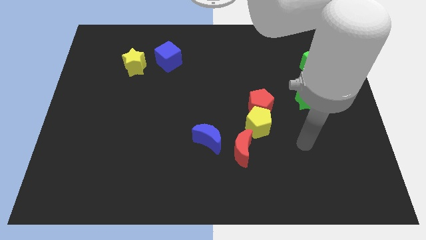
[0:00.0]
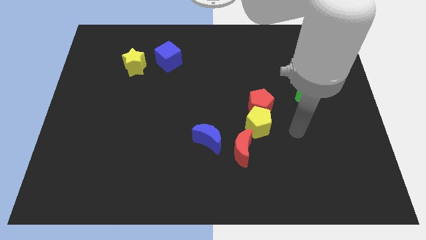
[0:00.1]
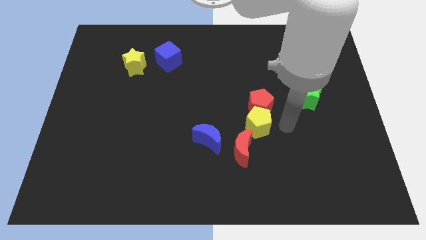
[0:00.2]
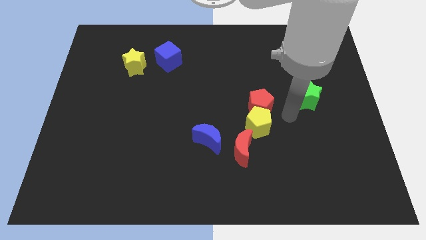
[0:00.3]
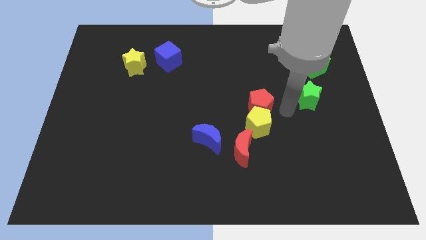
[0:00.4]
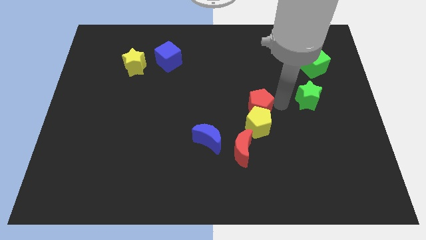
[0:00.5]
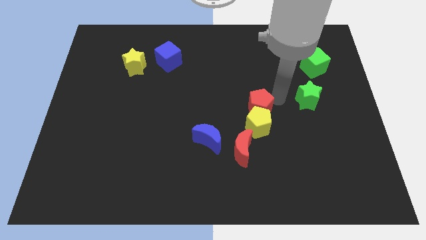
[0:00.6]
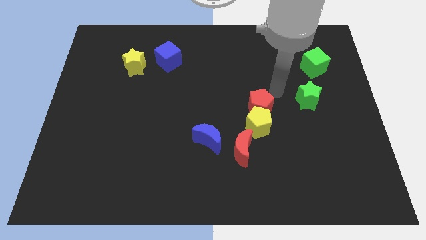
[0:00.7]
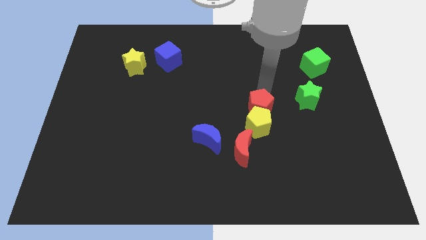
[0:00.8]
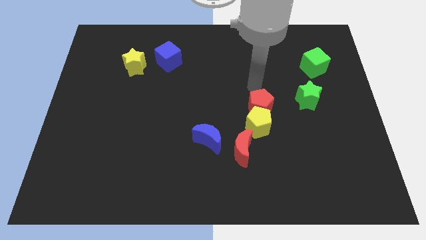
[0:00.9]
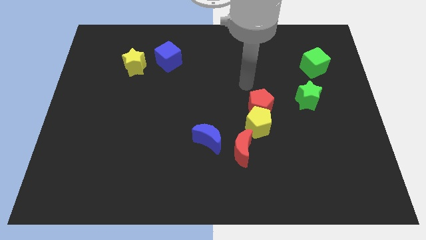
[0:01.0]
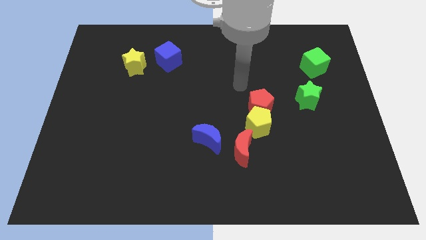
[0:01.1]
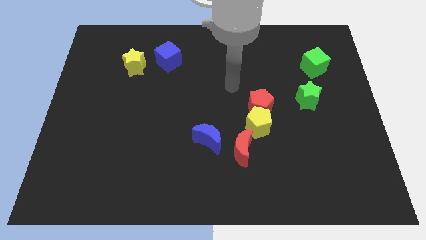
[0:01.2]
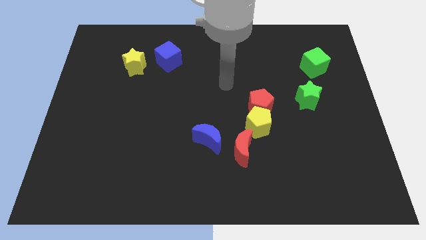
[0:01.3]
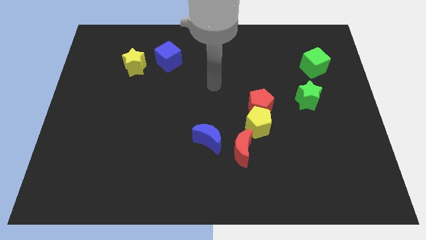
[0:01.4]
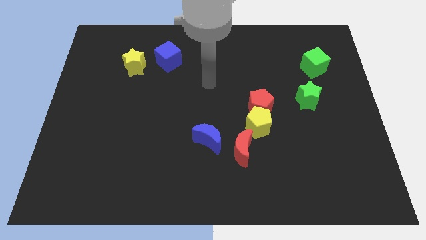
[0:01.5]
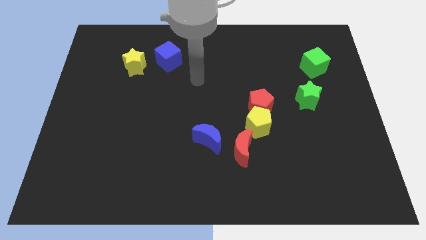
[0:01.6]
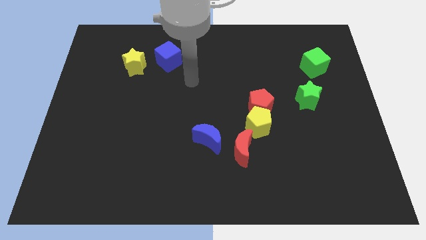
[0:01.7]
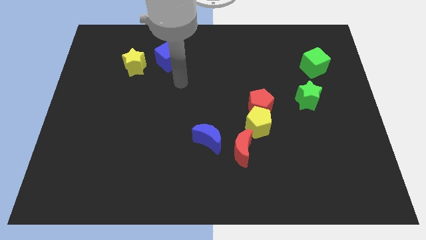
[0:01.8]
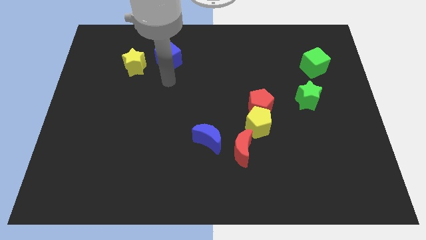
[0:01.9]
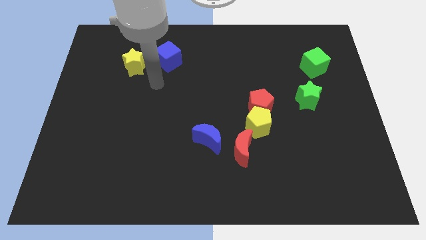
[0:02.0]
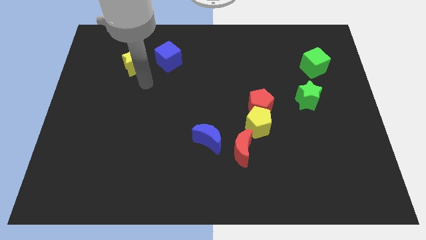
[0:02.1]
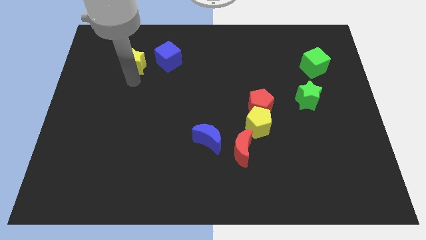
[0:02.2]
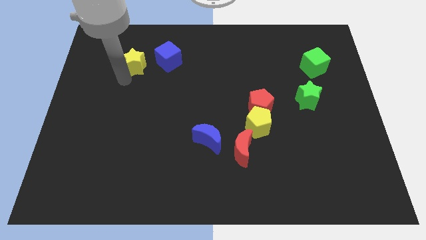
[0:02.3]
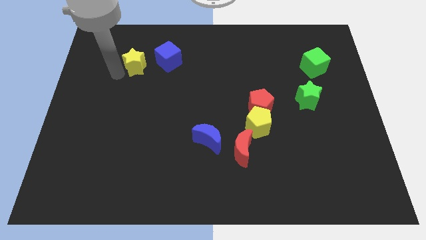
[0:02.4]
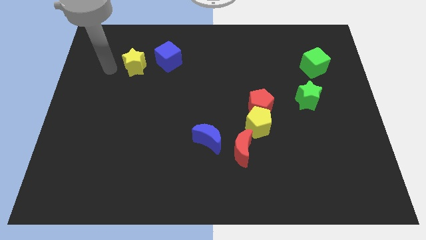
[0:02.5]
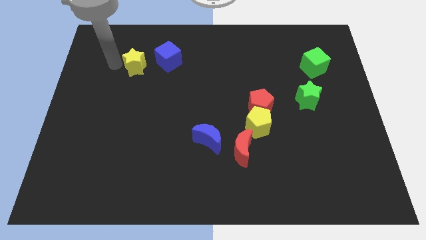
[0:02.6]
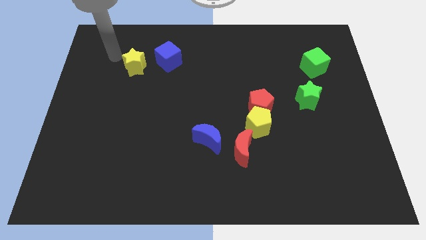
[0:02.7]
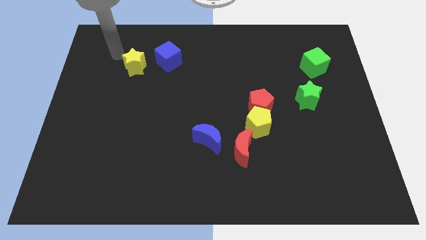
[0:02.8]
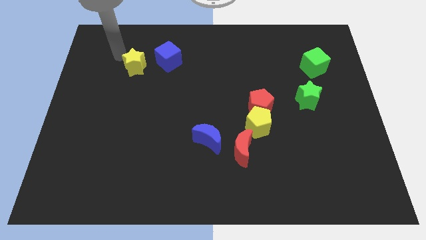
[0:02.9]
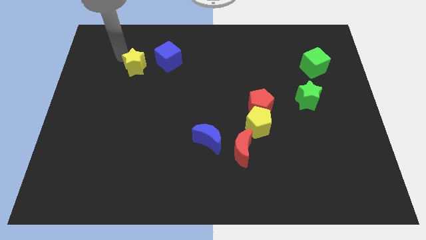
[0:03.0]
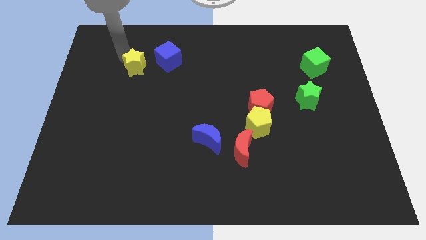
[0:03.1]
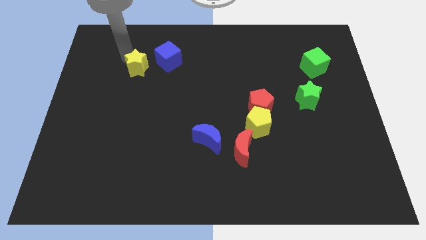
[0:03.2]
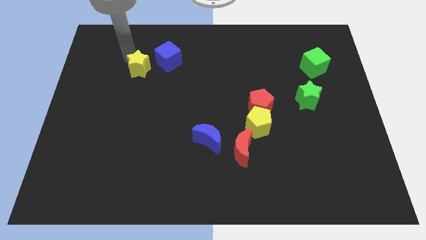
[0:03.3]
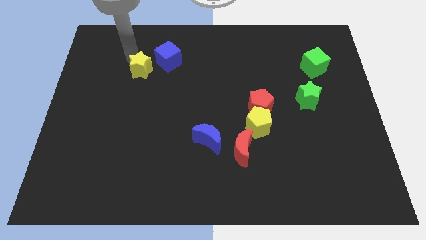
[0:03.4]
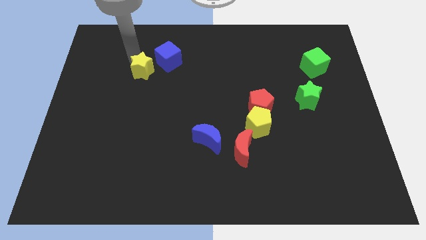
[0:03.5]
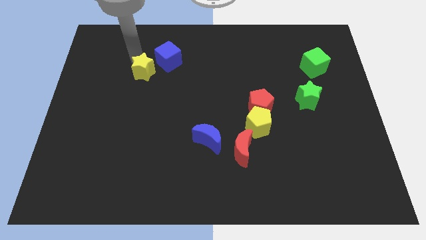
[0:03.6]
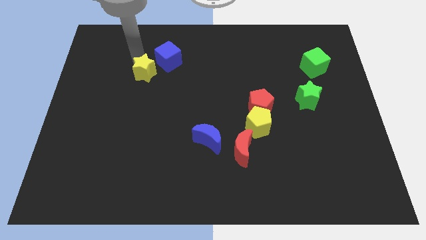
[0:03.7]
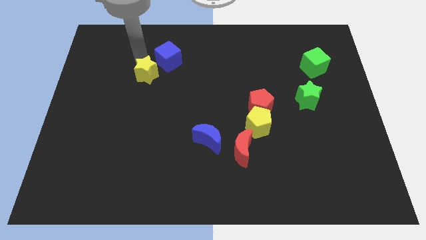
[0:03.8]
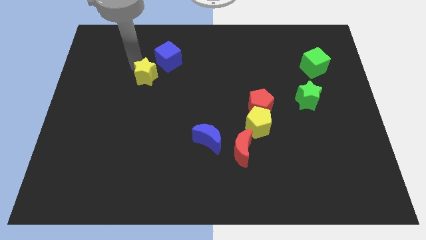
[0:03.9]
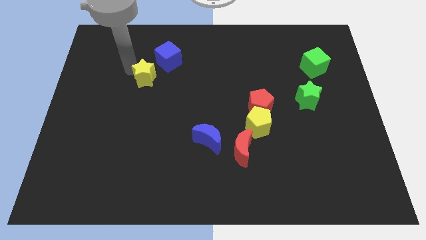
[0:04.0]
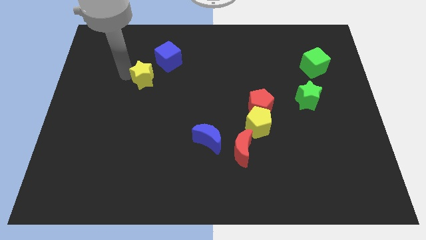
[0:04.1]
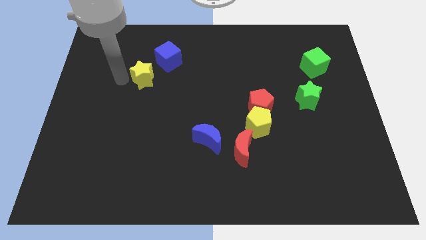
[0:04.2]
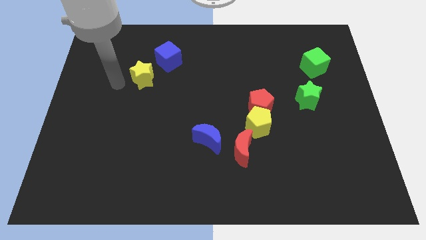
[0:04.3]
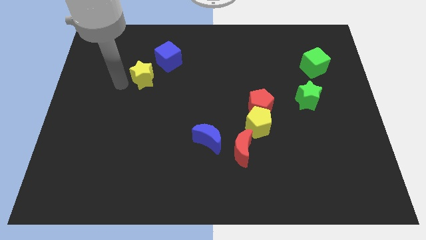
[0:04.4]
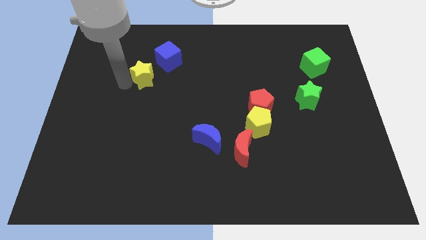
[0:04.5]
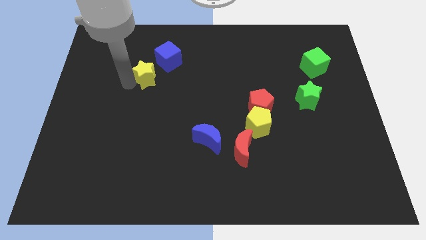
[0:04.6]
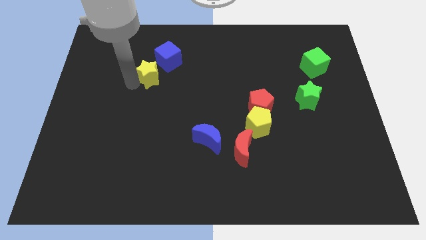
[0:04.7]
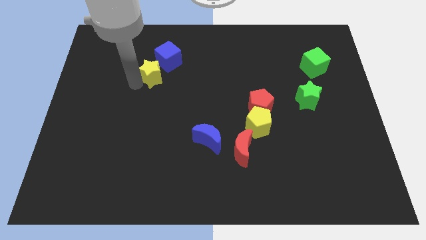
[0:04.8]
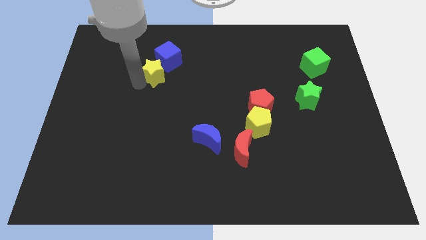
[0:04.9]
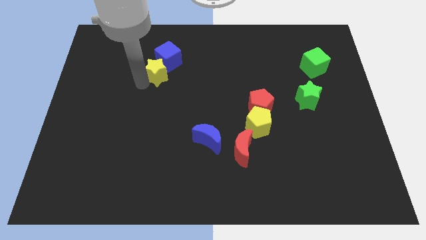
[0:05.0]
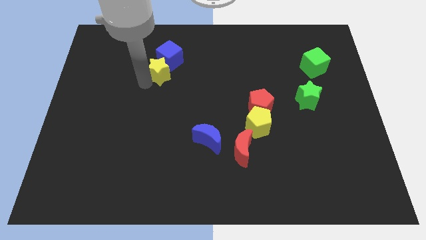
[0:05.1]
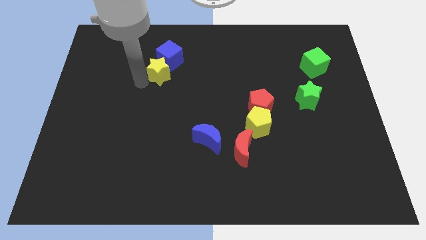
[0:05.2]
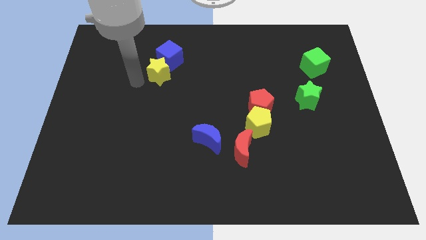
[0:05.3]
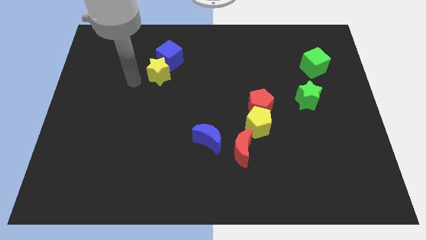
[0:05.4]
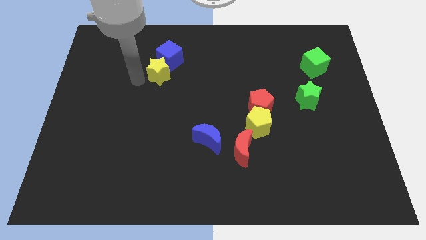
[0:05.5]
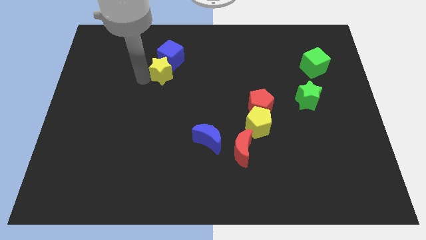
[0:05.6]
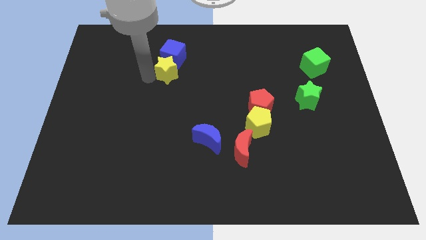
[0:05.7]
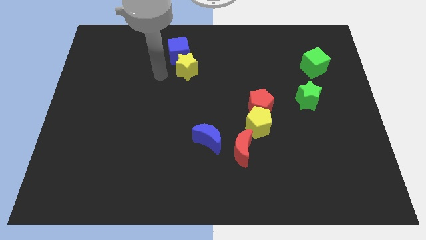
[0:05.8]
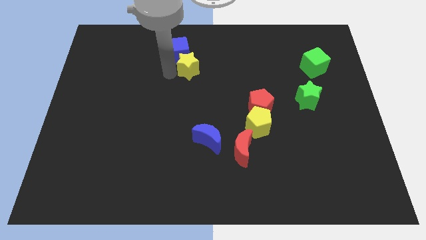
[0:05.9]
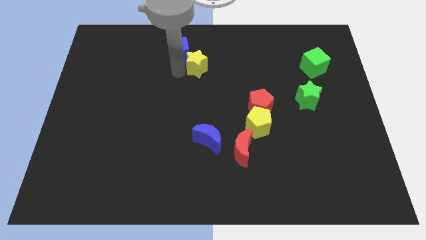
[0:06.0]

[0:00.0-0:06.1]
slide the yellow star to the right side of the blue cube

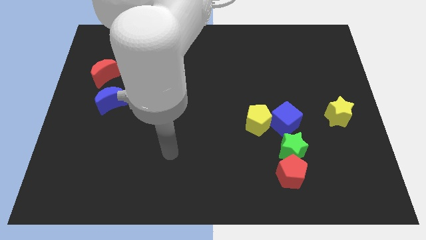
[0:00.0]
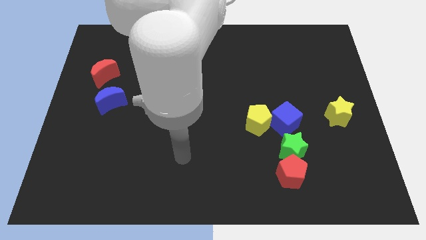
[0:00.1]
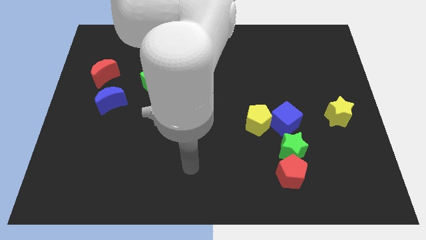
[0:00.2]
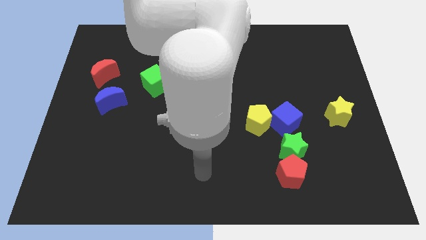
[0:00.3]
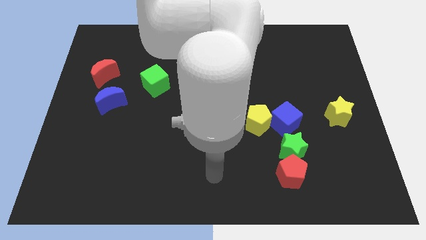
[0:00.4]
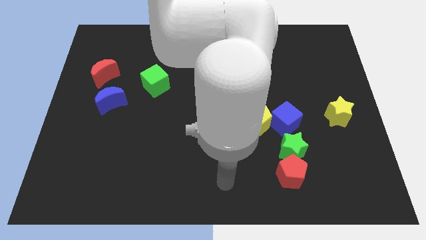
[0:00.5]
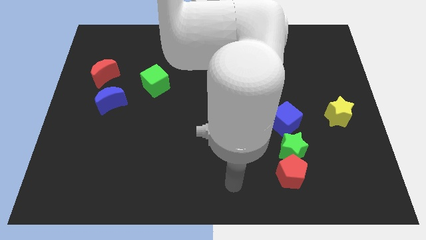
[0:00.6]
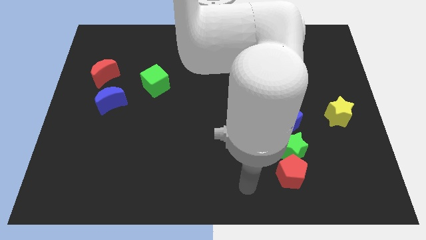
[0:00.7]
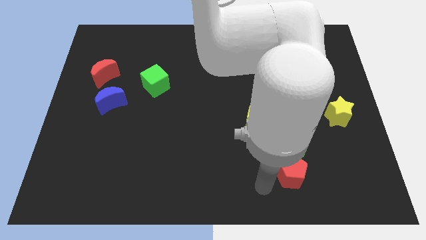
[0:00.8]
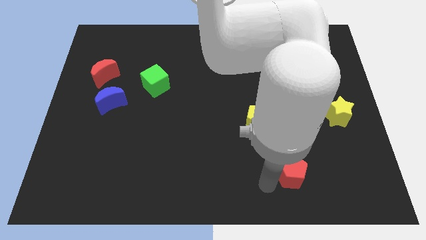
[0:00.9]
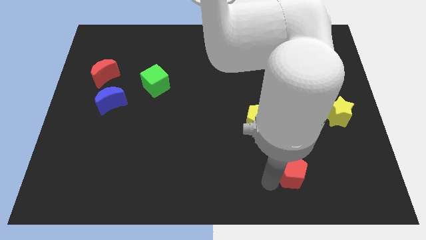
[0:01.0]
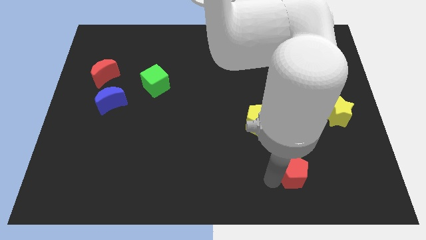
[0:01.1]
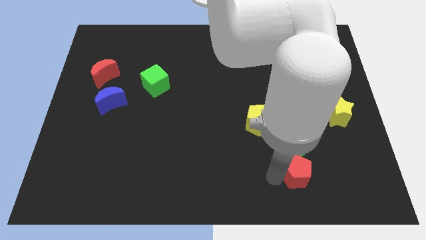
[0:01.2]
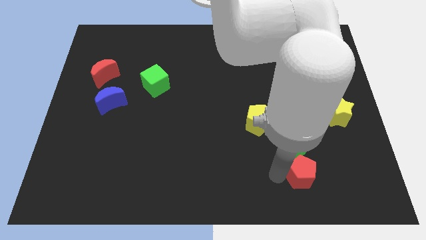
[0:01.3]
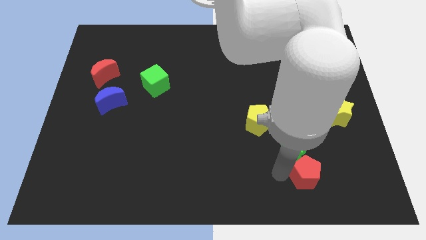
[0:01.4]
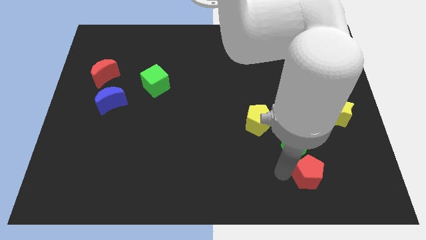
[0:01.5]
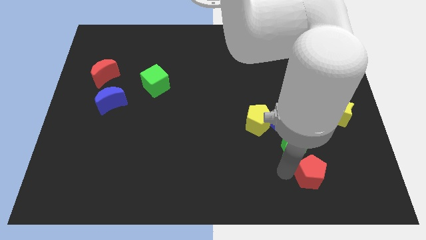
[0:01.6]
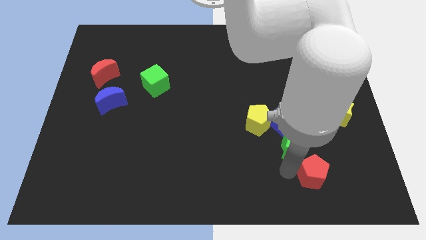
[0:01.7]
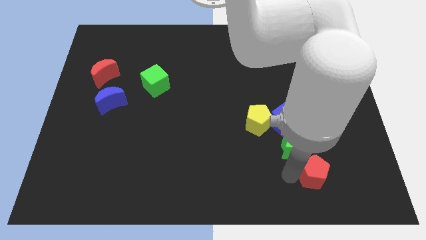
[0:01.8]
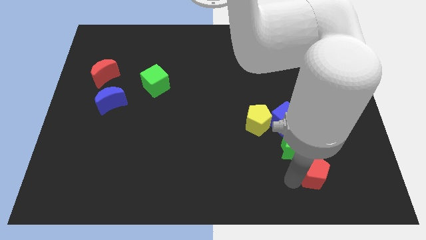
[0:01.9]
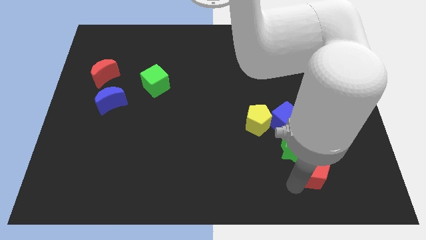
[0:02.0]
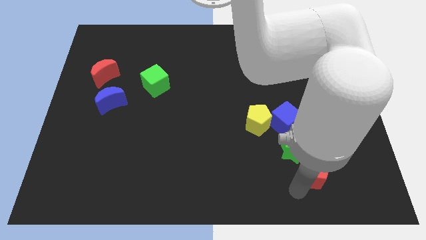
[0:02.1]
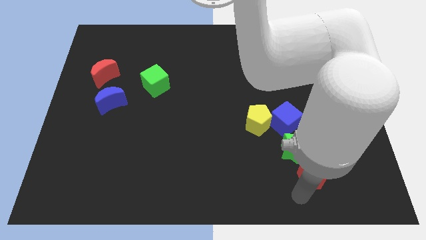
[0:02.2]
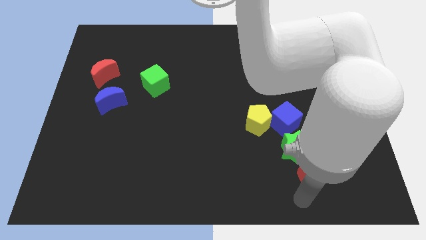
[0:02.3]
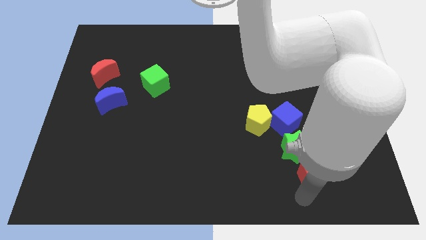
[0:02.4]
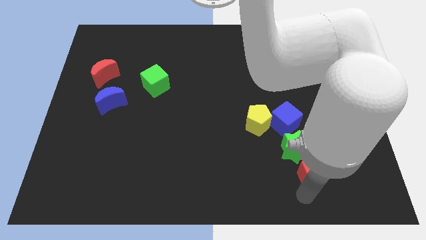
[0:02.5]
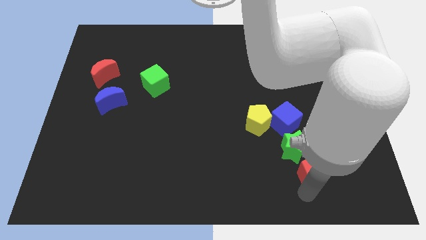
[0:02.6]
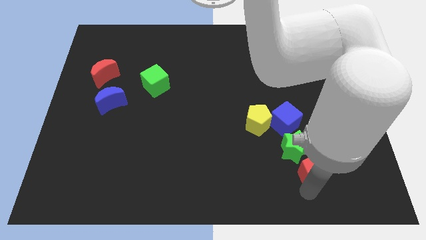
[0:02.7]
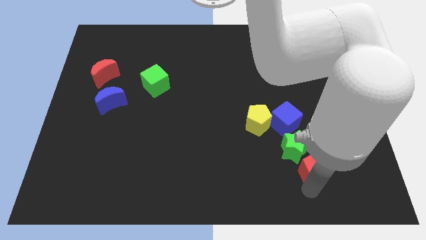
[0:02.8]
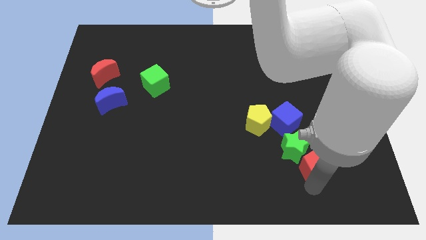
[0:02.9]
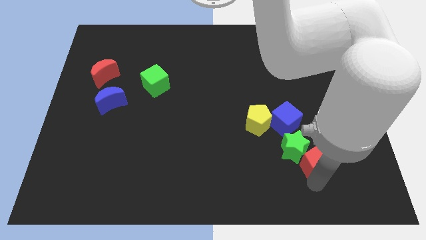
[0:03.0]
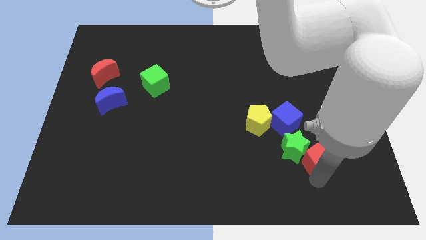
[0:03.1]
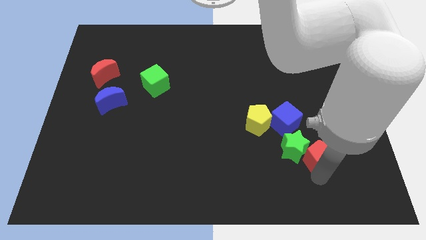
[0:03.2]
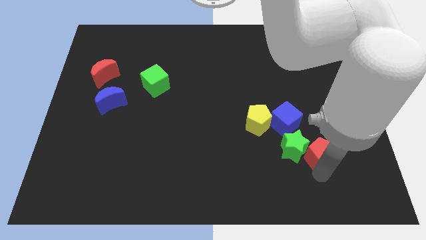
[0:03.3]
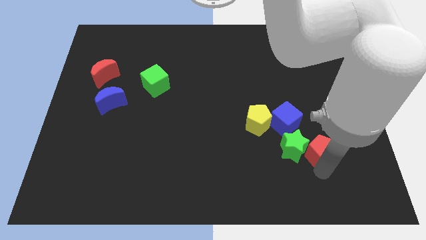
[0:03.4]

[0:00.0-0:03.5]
move the red pentagon diagonally down and to the left of the yellow star
